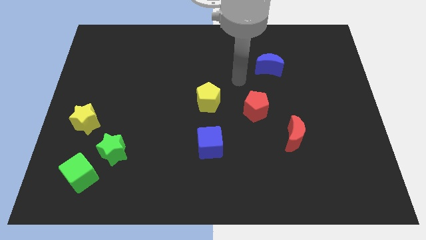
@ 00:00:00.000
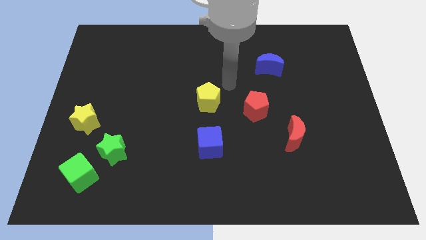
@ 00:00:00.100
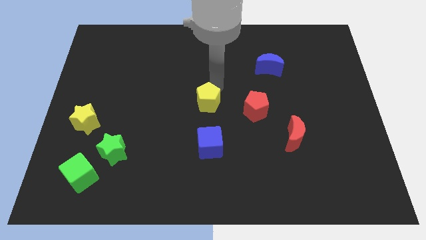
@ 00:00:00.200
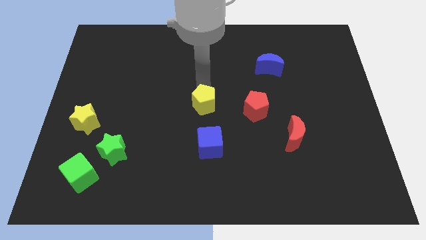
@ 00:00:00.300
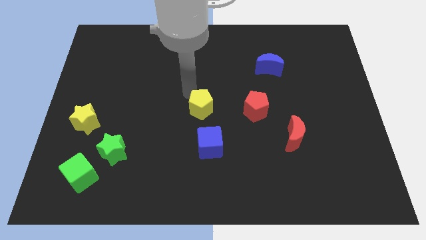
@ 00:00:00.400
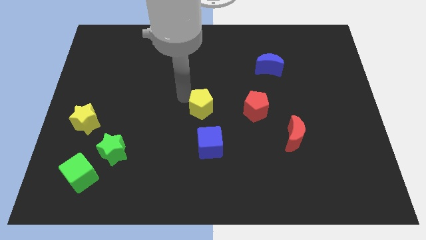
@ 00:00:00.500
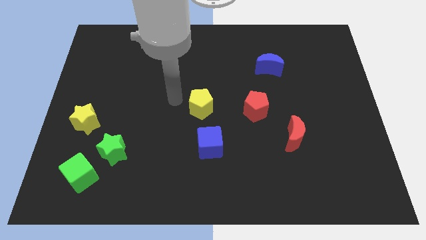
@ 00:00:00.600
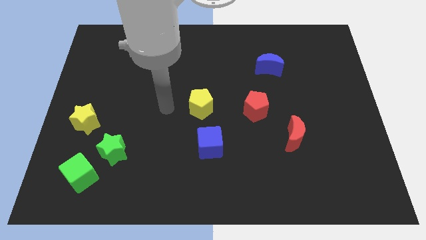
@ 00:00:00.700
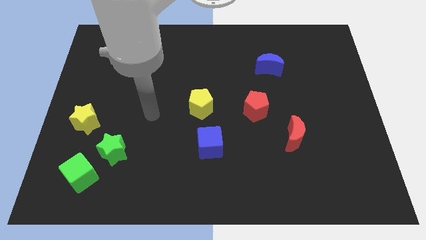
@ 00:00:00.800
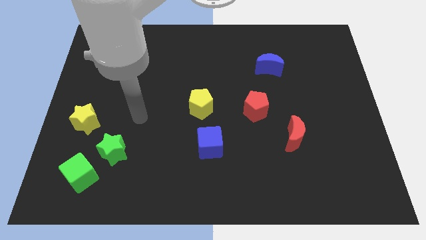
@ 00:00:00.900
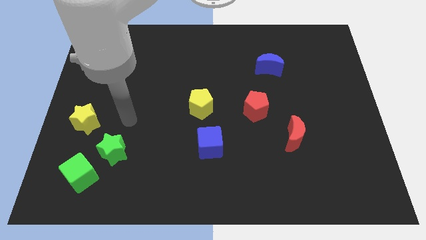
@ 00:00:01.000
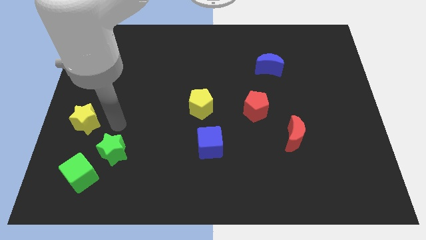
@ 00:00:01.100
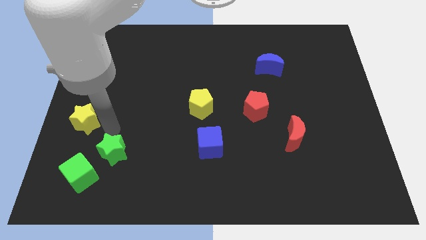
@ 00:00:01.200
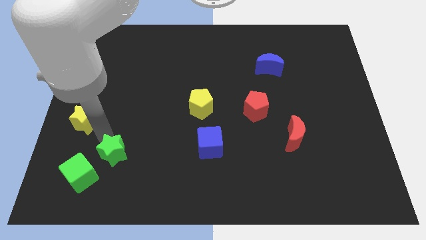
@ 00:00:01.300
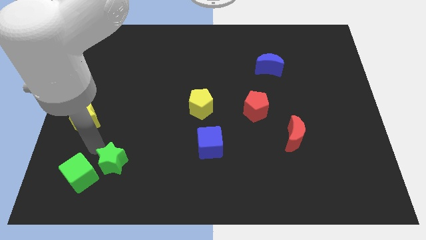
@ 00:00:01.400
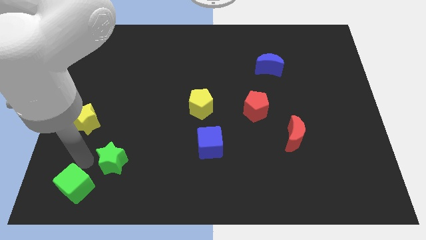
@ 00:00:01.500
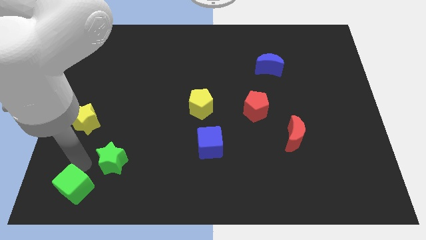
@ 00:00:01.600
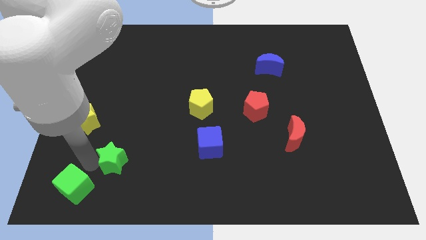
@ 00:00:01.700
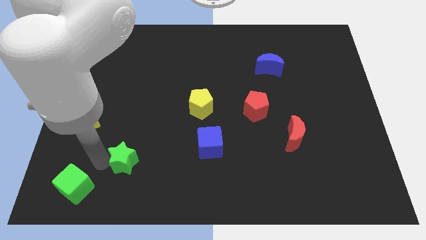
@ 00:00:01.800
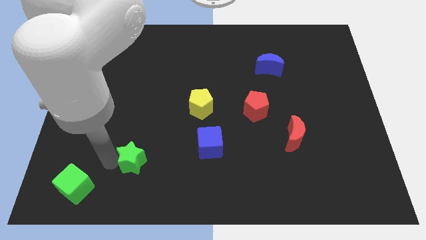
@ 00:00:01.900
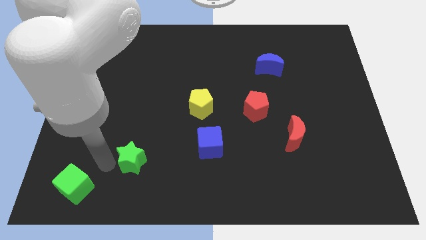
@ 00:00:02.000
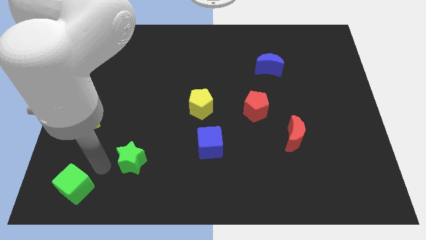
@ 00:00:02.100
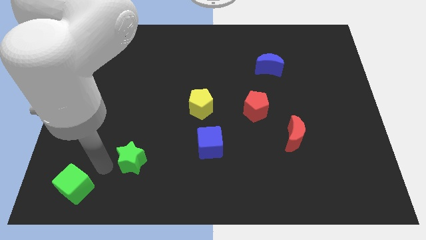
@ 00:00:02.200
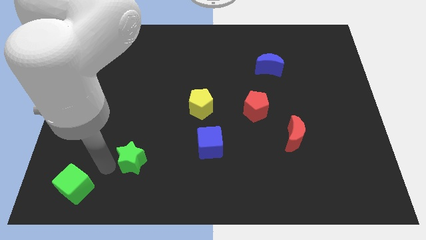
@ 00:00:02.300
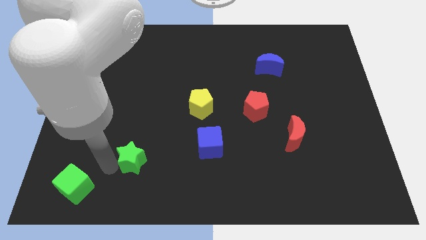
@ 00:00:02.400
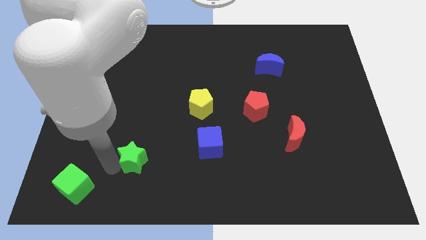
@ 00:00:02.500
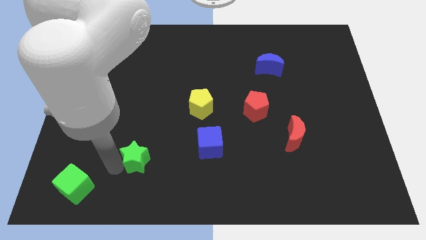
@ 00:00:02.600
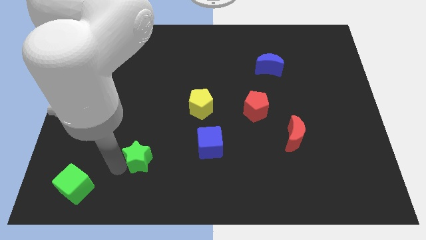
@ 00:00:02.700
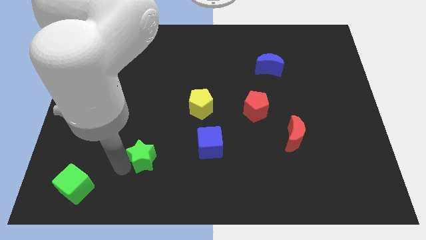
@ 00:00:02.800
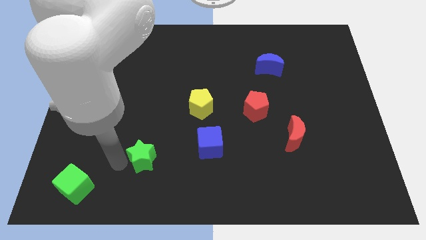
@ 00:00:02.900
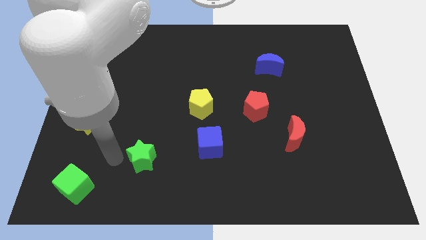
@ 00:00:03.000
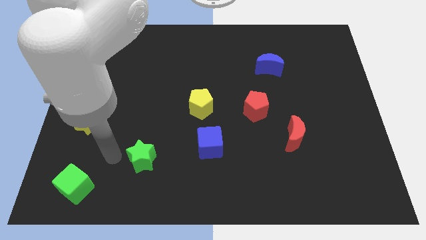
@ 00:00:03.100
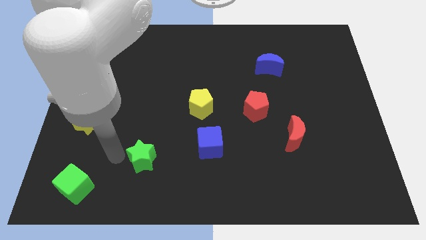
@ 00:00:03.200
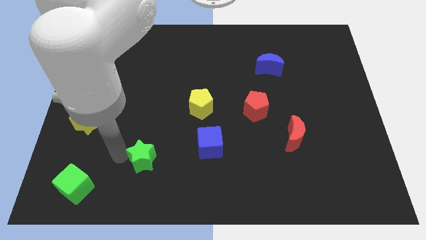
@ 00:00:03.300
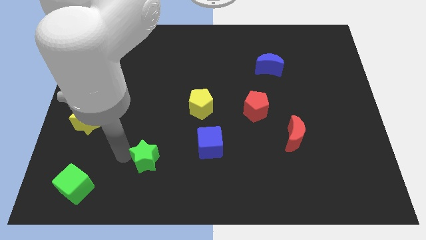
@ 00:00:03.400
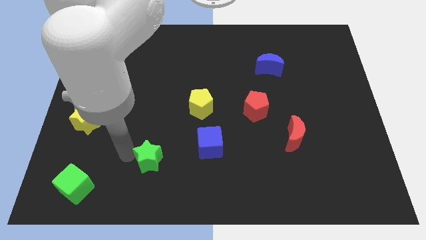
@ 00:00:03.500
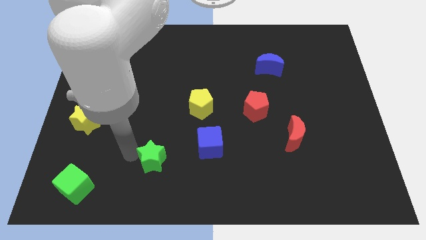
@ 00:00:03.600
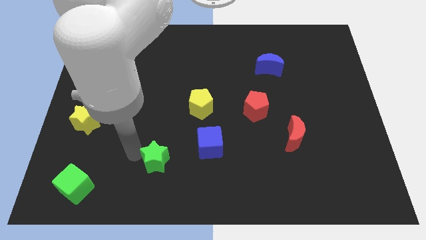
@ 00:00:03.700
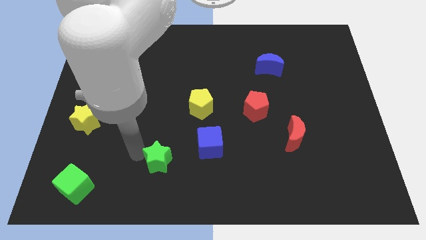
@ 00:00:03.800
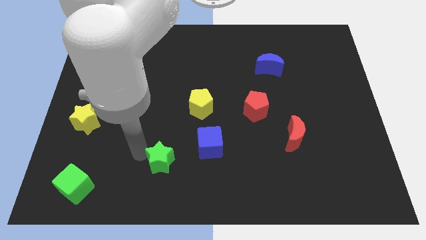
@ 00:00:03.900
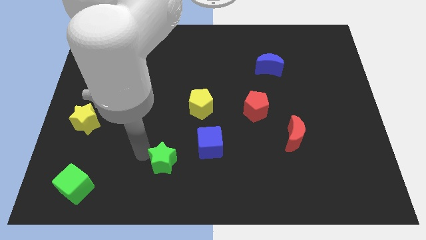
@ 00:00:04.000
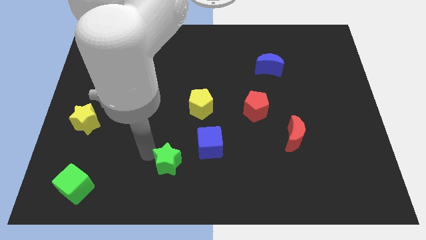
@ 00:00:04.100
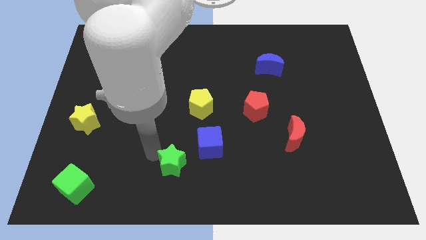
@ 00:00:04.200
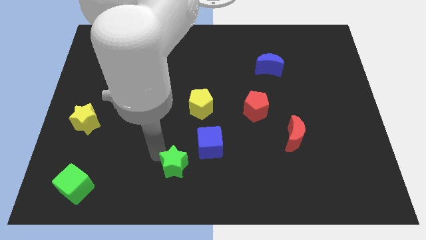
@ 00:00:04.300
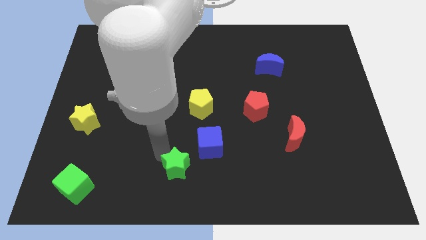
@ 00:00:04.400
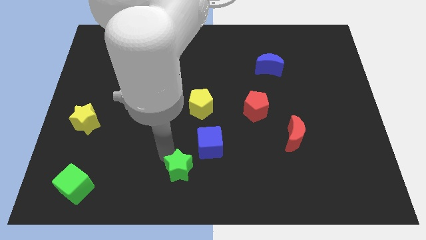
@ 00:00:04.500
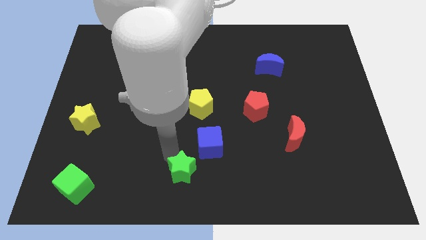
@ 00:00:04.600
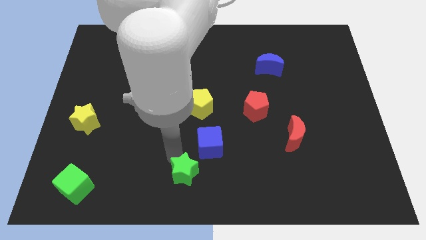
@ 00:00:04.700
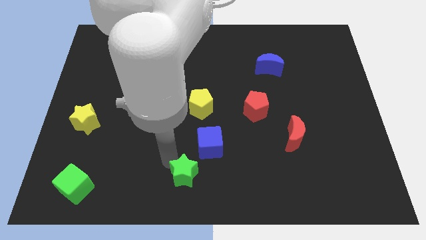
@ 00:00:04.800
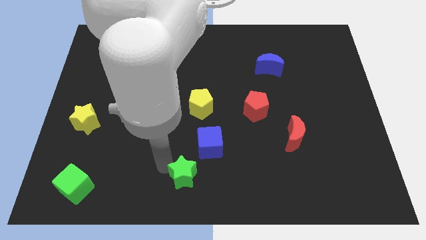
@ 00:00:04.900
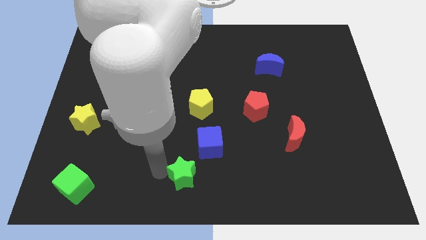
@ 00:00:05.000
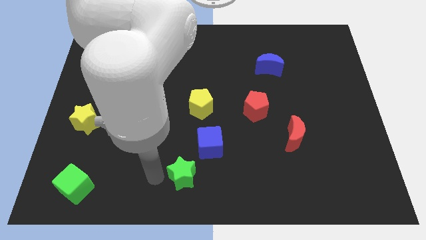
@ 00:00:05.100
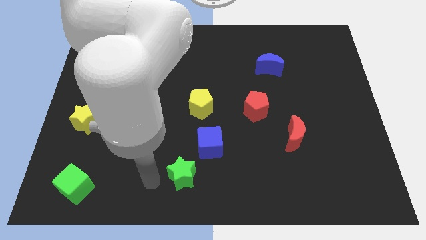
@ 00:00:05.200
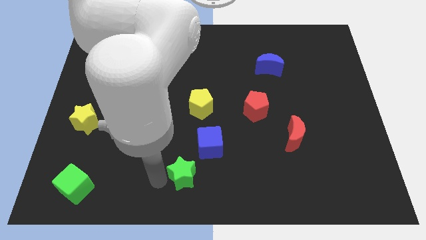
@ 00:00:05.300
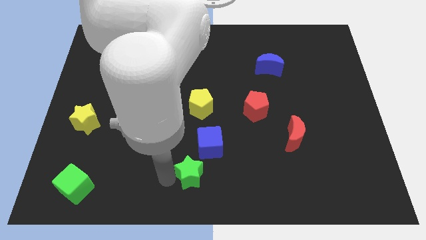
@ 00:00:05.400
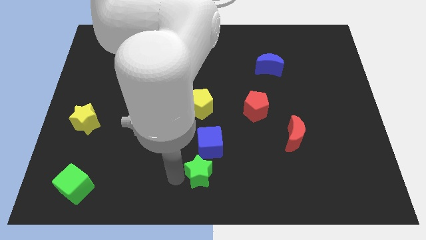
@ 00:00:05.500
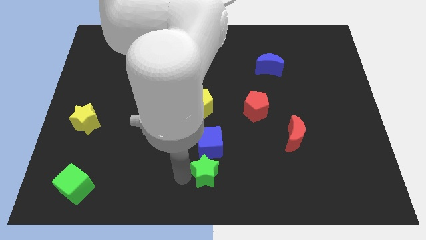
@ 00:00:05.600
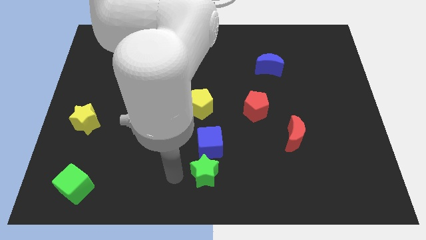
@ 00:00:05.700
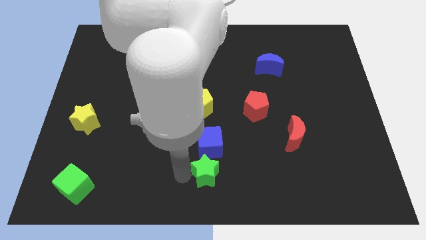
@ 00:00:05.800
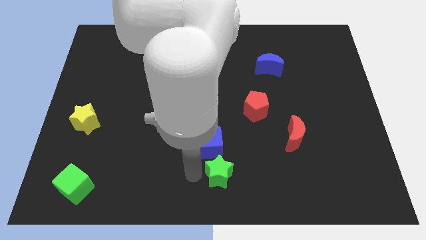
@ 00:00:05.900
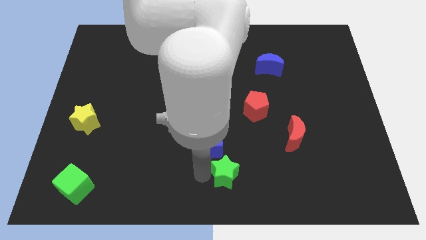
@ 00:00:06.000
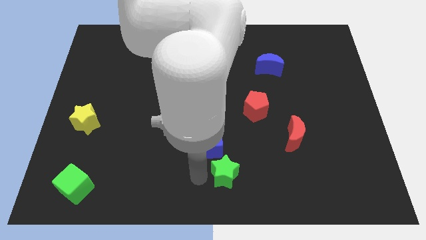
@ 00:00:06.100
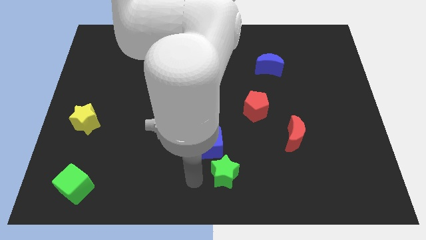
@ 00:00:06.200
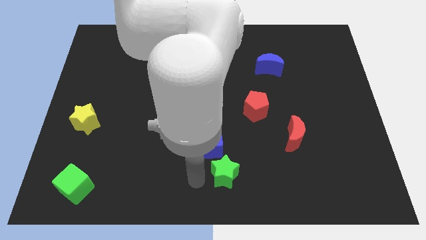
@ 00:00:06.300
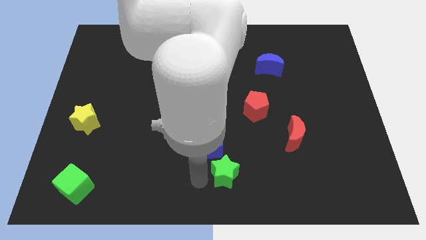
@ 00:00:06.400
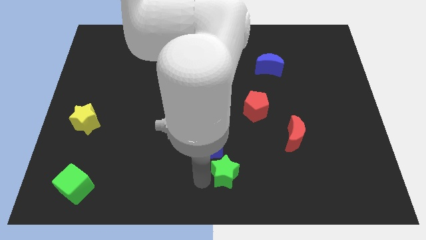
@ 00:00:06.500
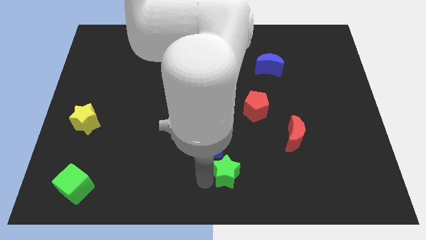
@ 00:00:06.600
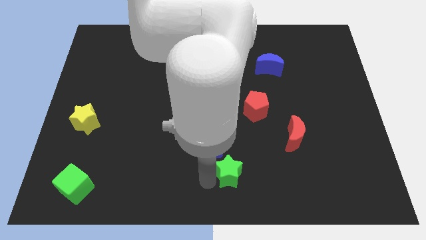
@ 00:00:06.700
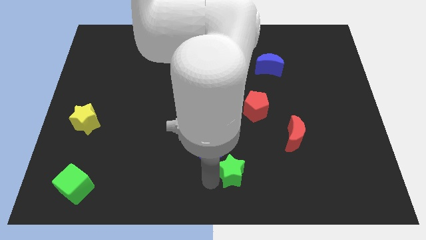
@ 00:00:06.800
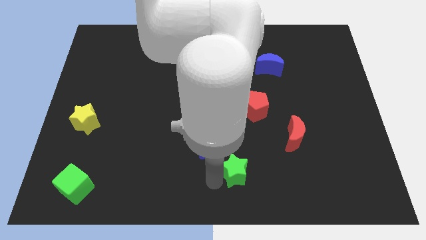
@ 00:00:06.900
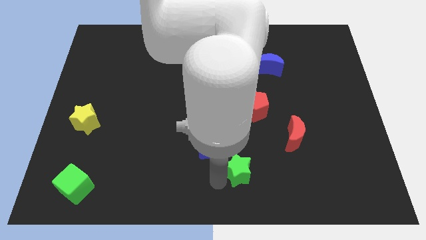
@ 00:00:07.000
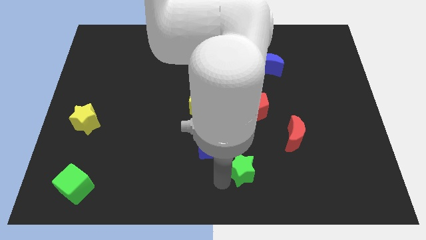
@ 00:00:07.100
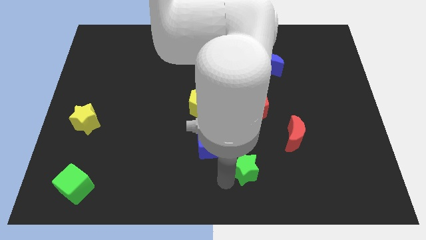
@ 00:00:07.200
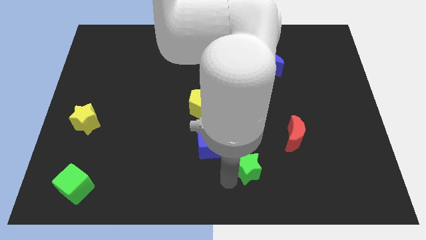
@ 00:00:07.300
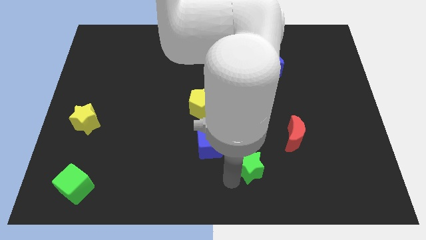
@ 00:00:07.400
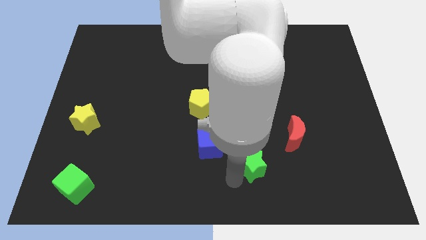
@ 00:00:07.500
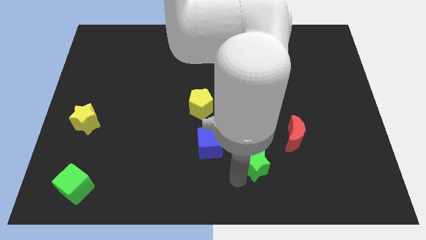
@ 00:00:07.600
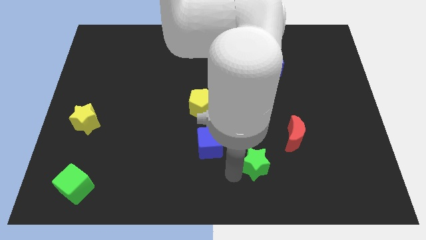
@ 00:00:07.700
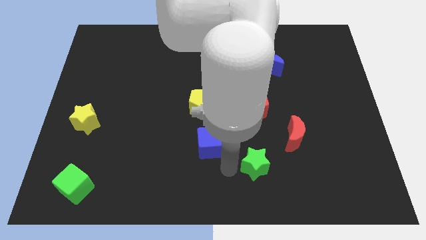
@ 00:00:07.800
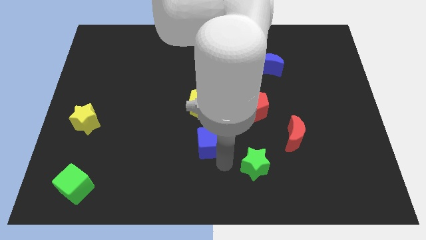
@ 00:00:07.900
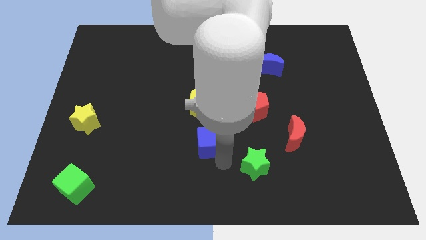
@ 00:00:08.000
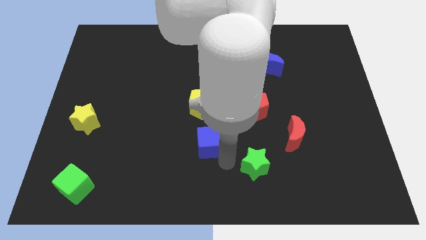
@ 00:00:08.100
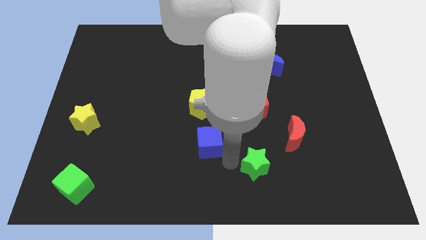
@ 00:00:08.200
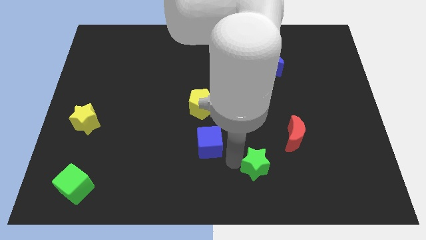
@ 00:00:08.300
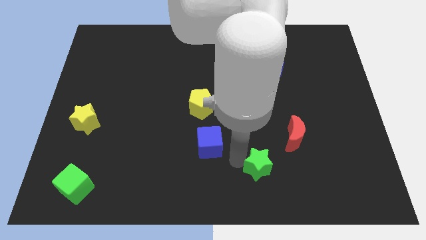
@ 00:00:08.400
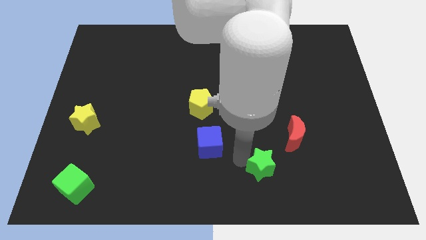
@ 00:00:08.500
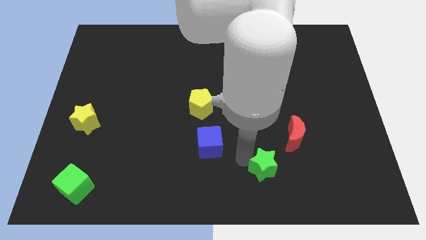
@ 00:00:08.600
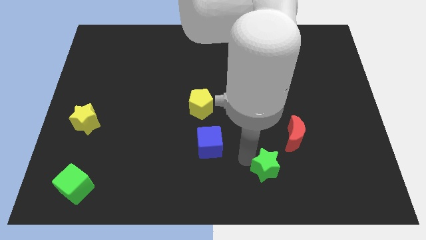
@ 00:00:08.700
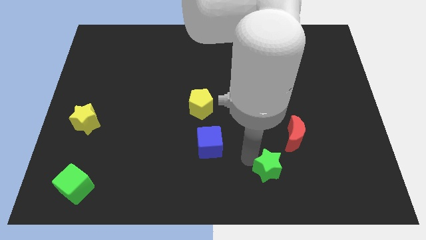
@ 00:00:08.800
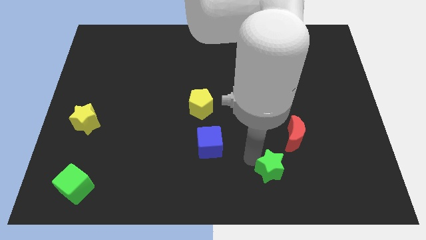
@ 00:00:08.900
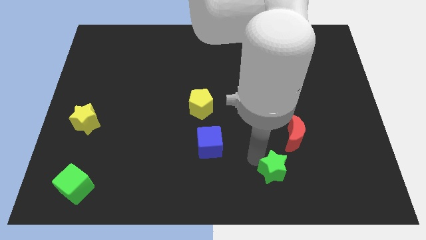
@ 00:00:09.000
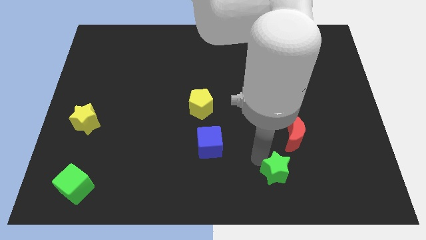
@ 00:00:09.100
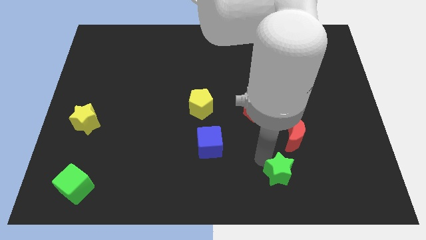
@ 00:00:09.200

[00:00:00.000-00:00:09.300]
push the green star below the red moon
